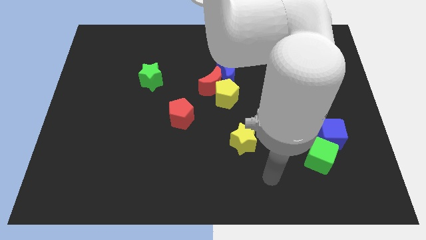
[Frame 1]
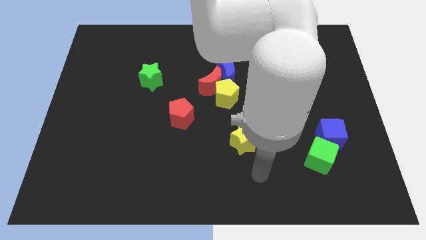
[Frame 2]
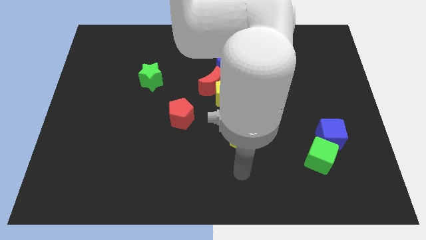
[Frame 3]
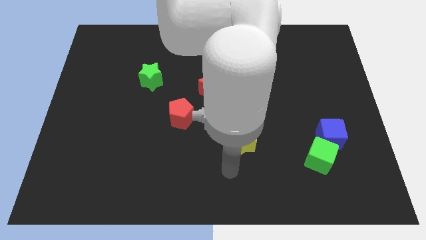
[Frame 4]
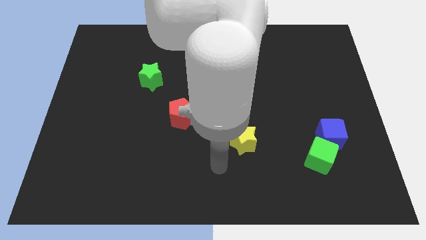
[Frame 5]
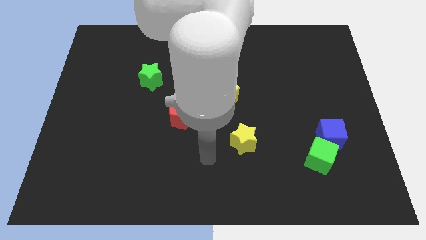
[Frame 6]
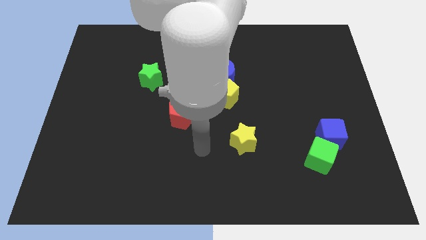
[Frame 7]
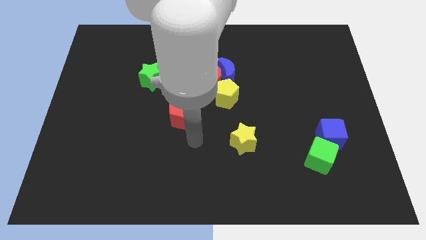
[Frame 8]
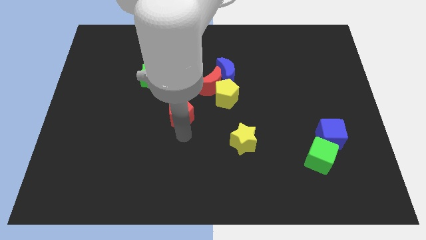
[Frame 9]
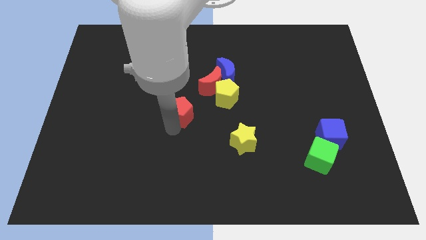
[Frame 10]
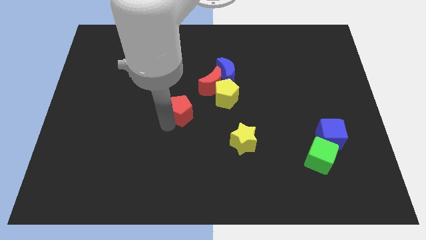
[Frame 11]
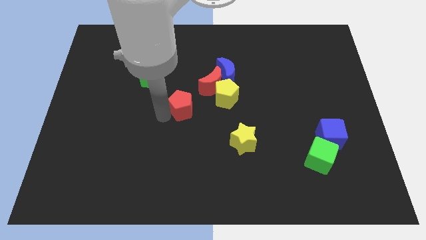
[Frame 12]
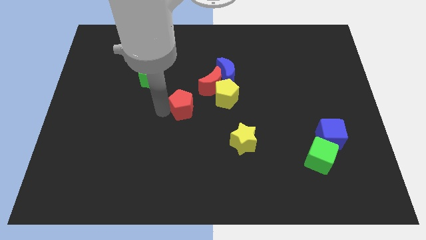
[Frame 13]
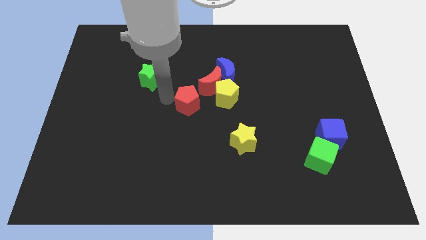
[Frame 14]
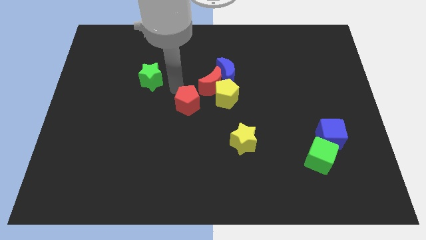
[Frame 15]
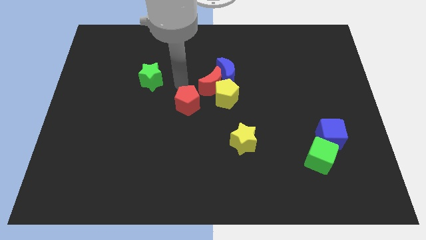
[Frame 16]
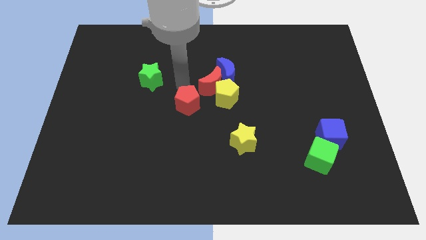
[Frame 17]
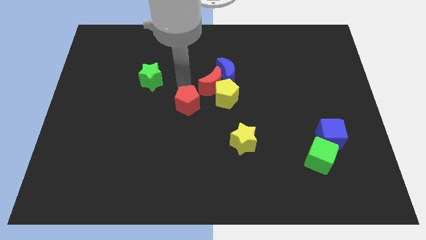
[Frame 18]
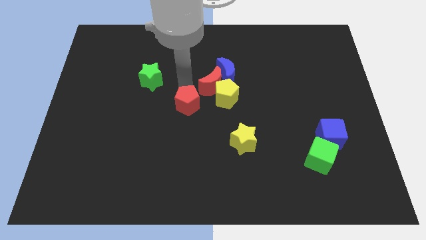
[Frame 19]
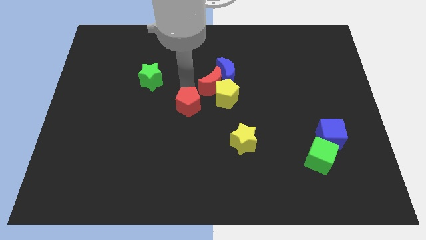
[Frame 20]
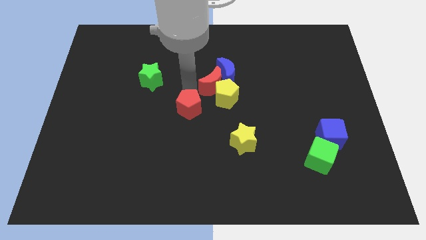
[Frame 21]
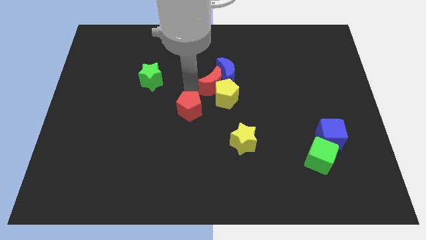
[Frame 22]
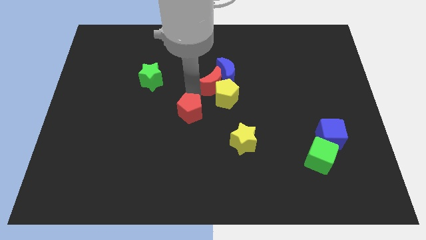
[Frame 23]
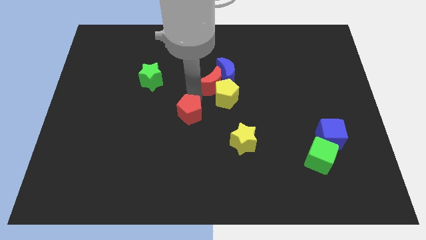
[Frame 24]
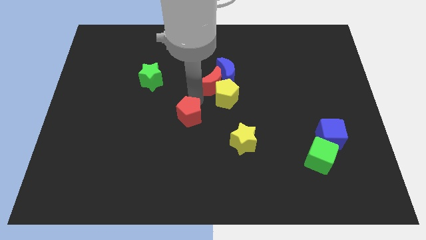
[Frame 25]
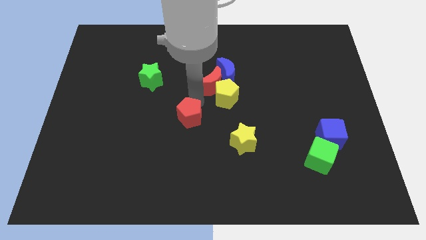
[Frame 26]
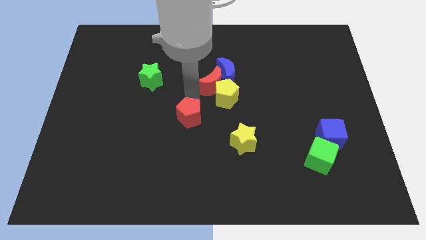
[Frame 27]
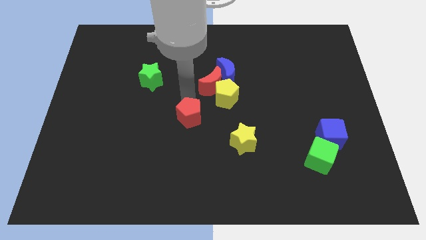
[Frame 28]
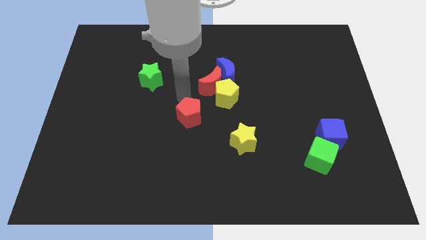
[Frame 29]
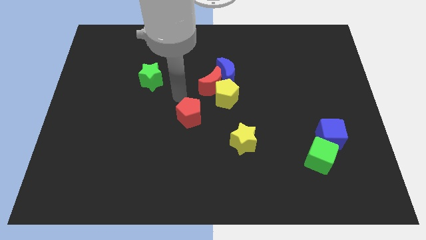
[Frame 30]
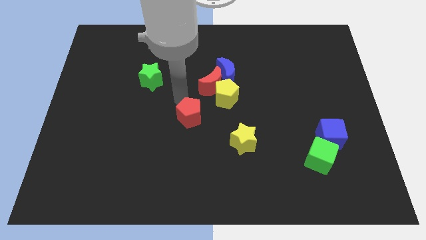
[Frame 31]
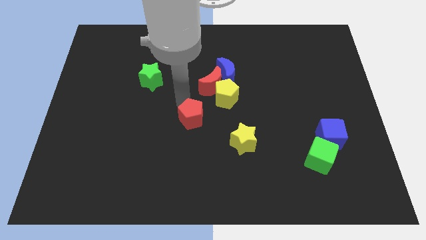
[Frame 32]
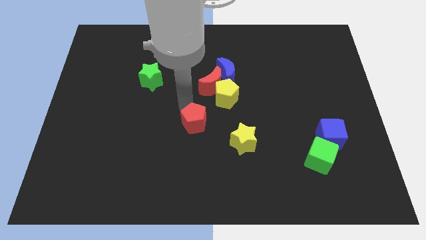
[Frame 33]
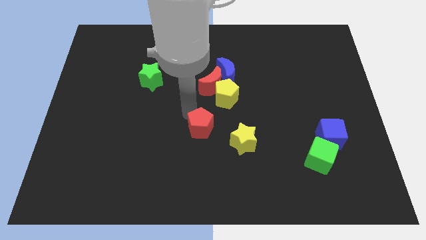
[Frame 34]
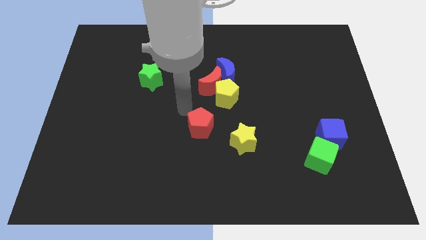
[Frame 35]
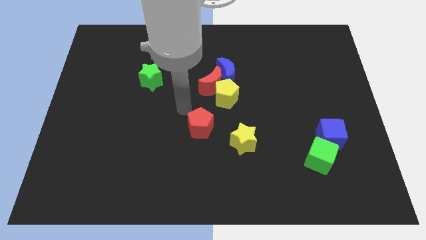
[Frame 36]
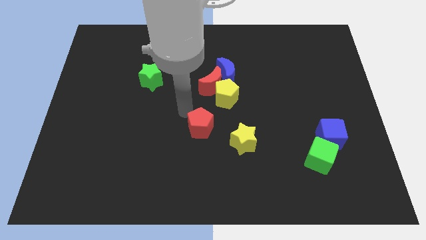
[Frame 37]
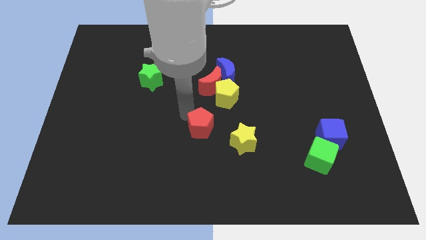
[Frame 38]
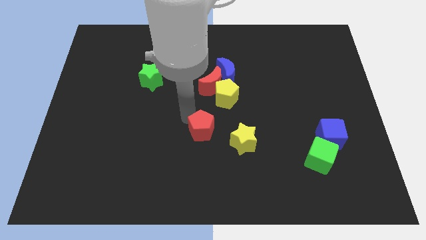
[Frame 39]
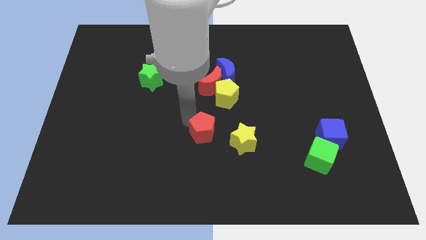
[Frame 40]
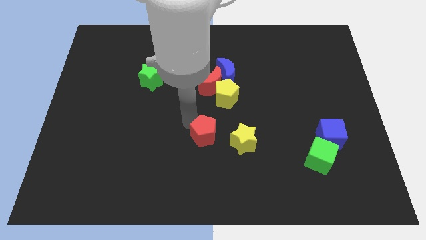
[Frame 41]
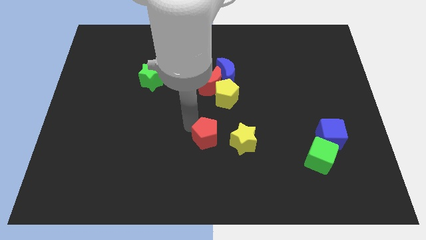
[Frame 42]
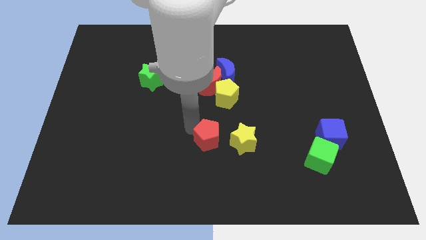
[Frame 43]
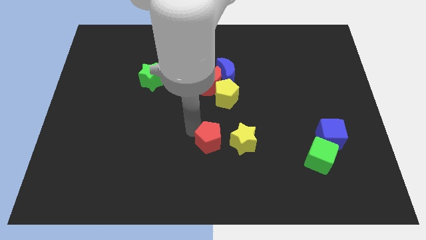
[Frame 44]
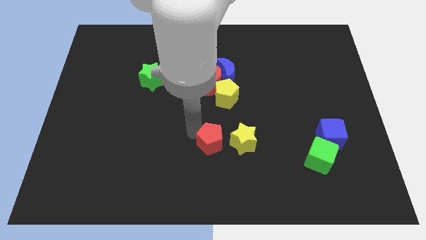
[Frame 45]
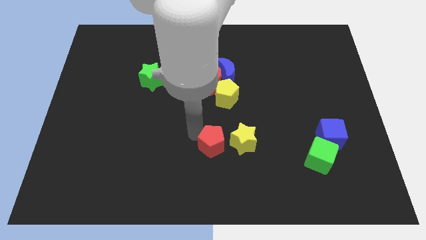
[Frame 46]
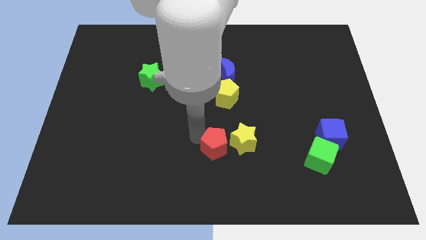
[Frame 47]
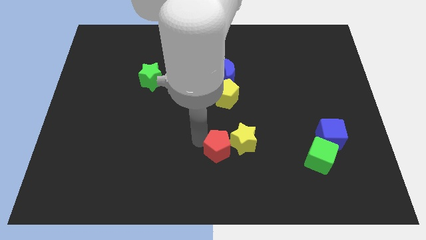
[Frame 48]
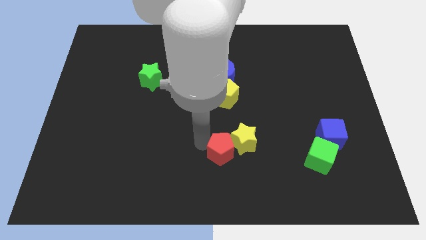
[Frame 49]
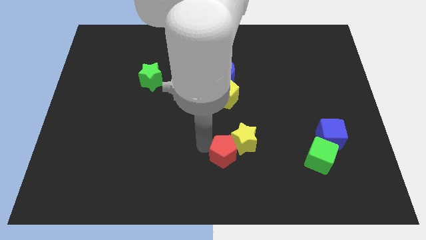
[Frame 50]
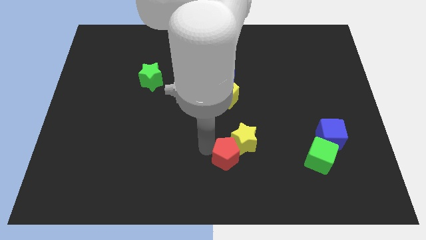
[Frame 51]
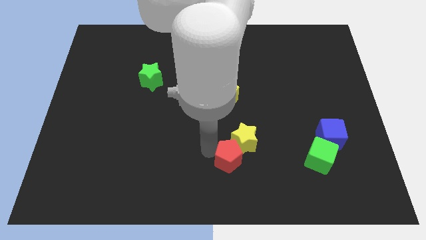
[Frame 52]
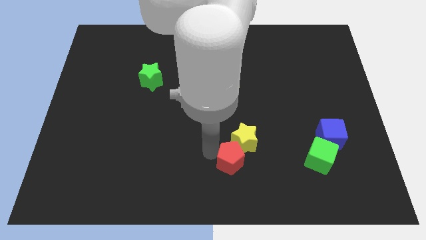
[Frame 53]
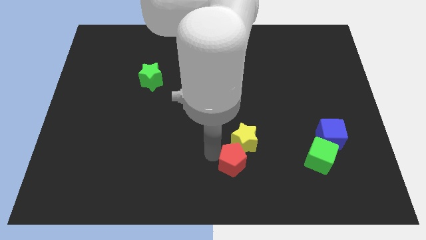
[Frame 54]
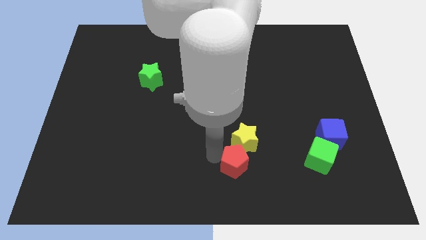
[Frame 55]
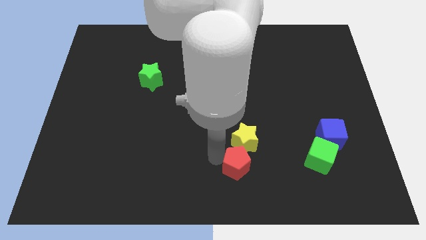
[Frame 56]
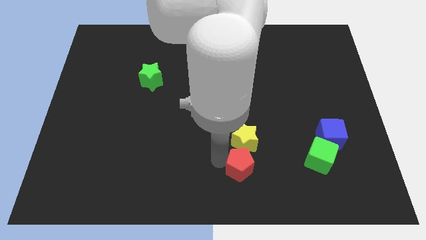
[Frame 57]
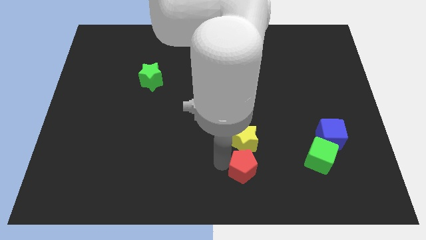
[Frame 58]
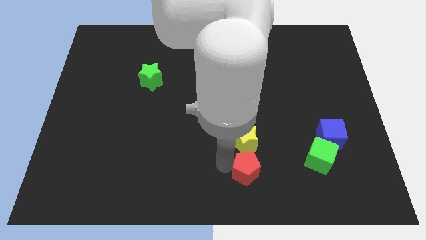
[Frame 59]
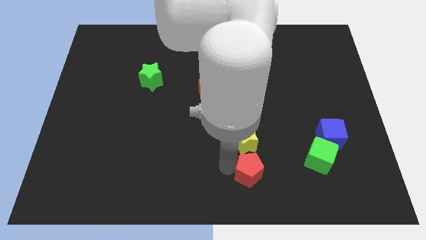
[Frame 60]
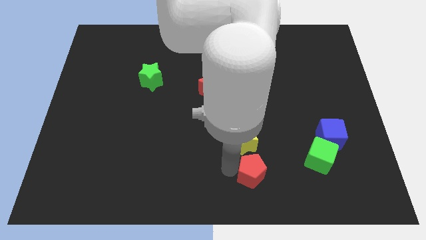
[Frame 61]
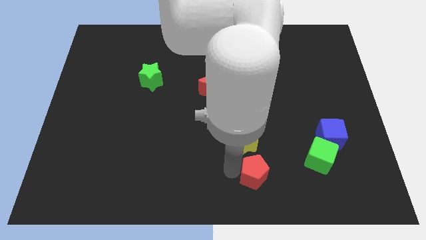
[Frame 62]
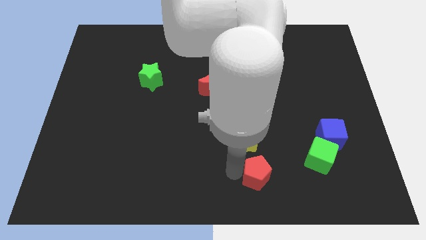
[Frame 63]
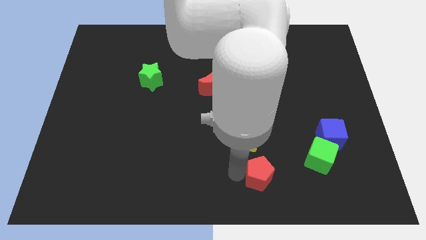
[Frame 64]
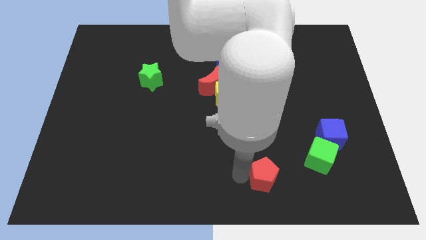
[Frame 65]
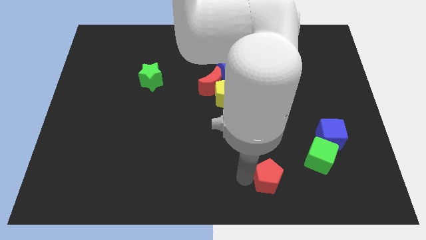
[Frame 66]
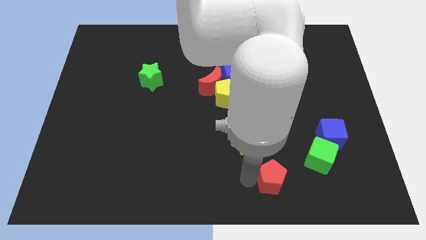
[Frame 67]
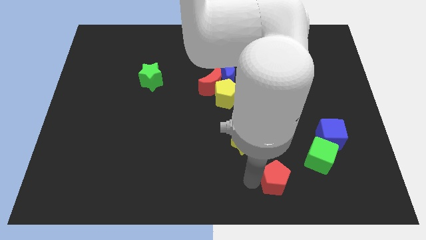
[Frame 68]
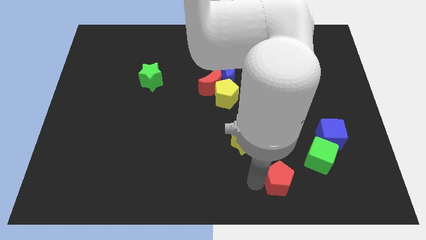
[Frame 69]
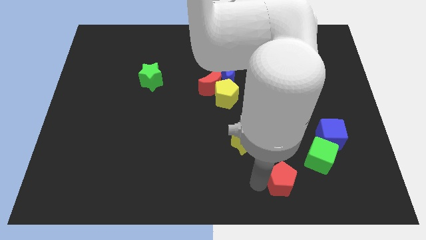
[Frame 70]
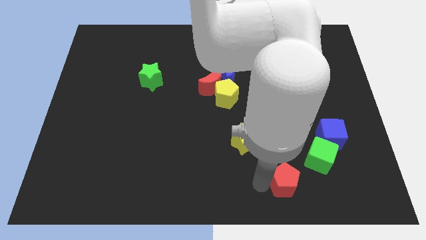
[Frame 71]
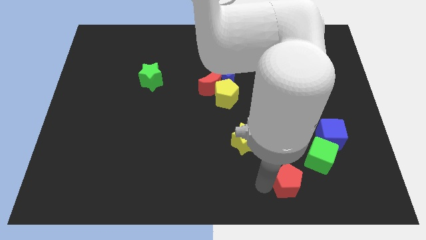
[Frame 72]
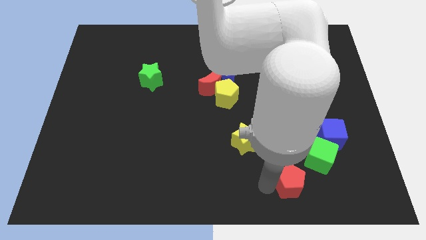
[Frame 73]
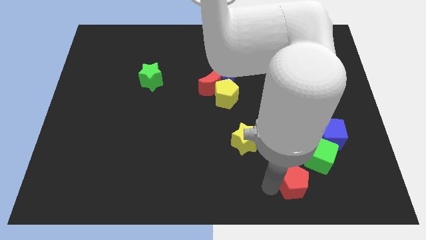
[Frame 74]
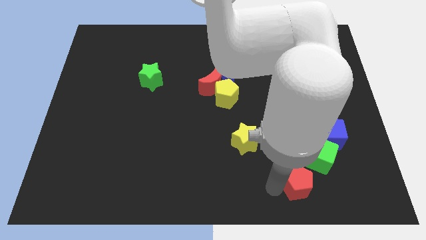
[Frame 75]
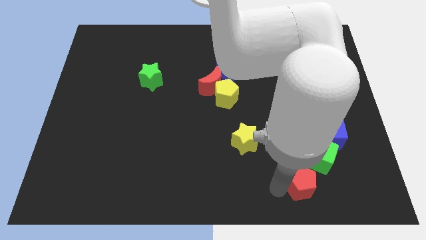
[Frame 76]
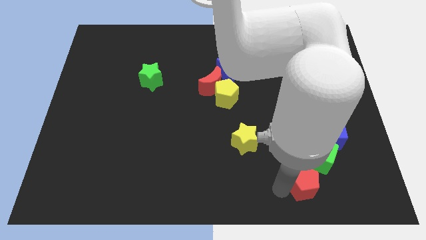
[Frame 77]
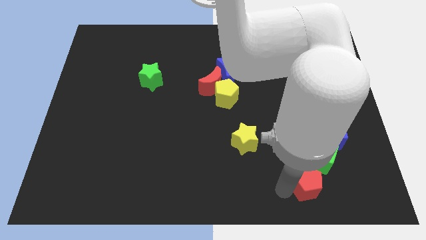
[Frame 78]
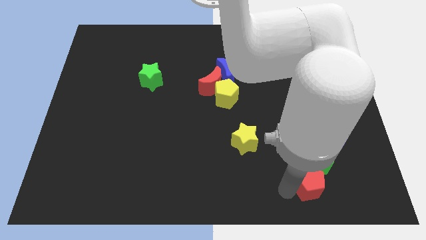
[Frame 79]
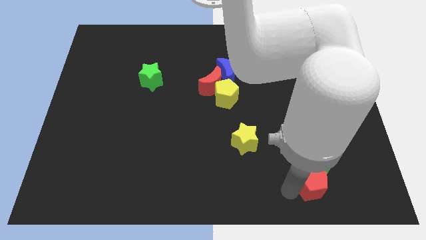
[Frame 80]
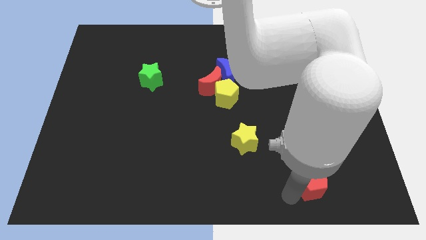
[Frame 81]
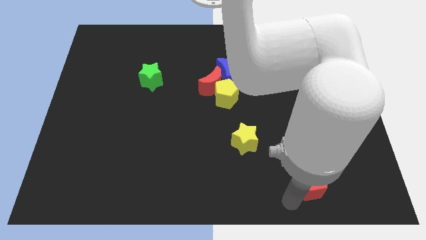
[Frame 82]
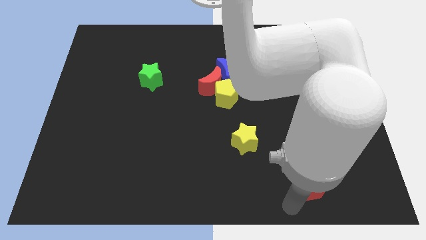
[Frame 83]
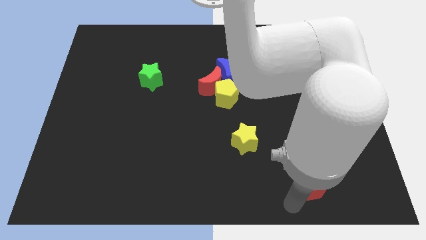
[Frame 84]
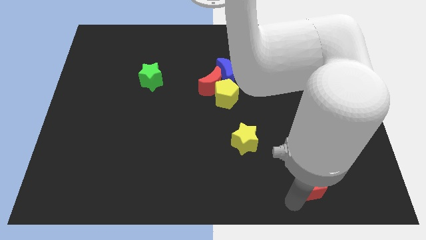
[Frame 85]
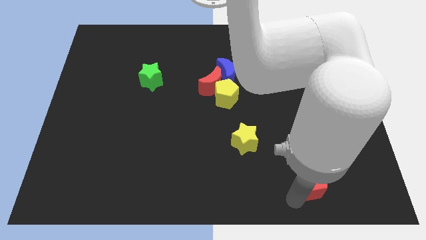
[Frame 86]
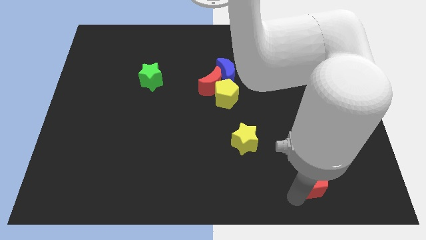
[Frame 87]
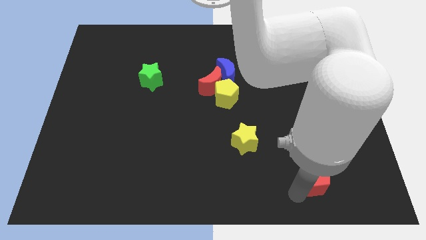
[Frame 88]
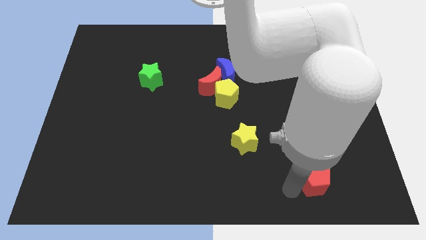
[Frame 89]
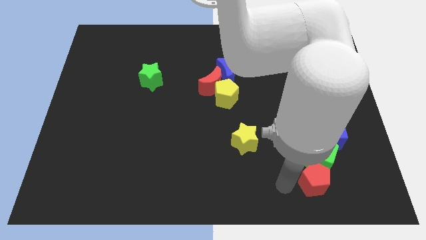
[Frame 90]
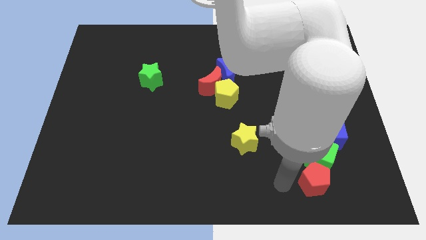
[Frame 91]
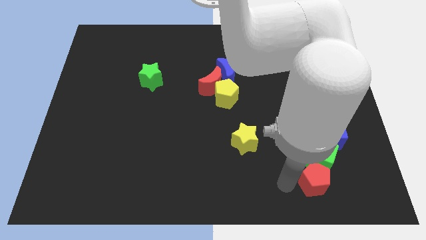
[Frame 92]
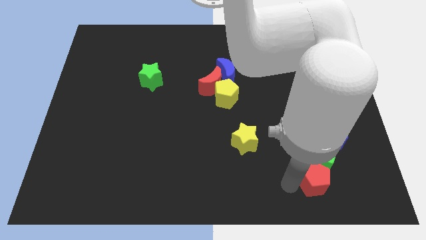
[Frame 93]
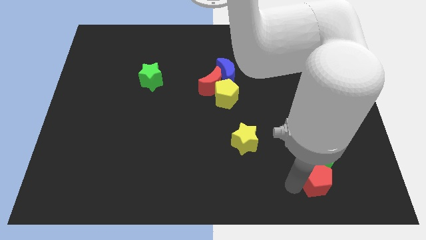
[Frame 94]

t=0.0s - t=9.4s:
put the red pentagon to the bottom of the blue cube
